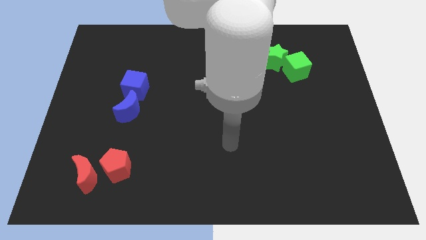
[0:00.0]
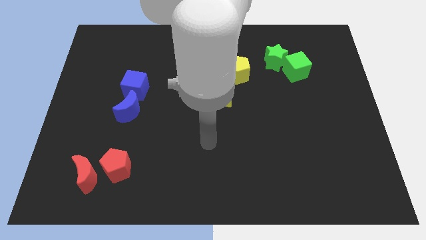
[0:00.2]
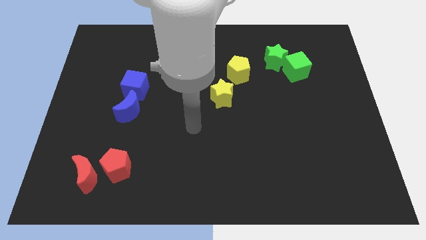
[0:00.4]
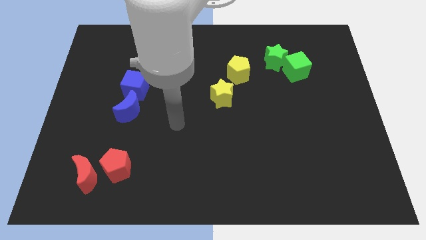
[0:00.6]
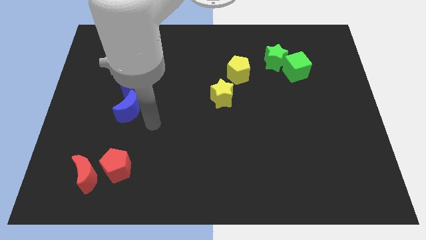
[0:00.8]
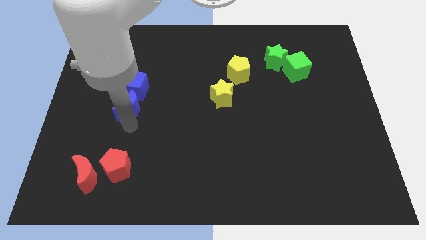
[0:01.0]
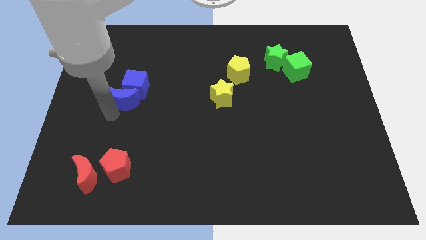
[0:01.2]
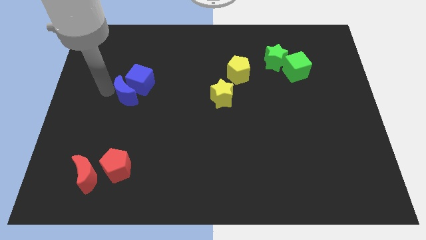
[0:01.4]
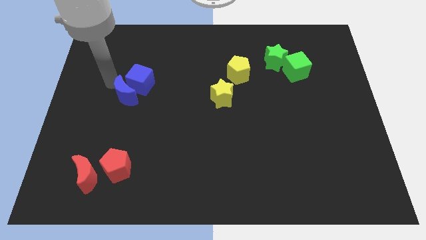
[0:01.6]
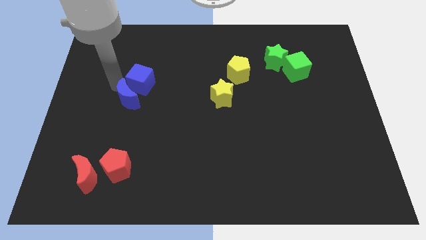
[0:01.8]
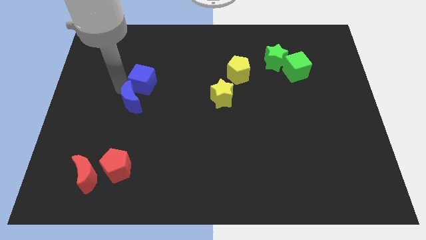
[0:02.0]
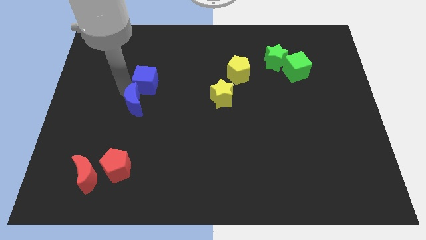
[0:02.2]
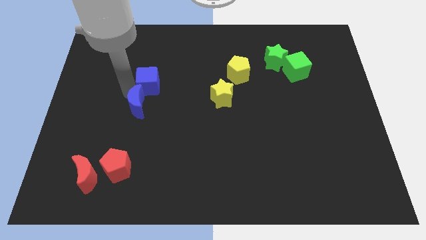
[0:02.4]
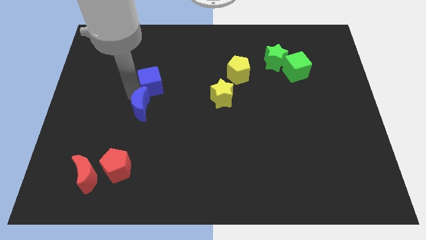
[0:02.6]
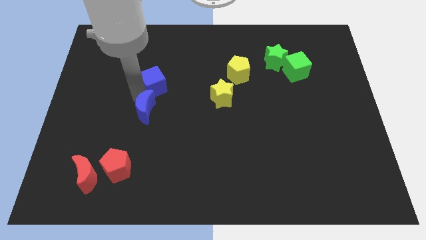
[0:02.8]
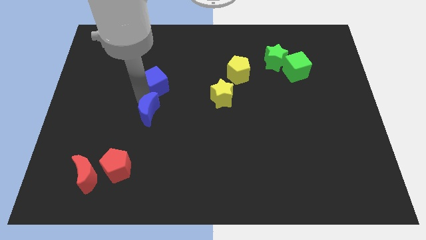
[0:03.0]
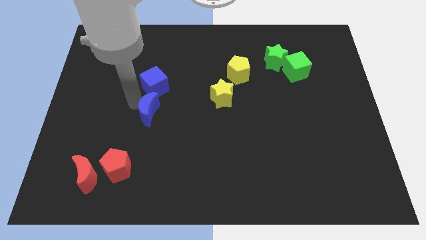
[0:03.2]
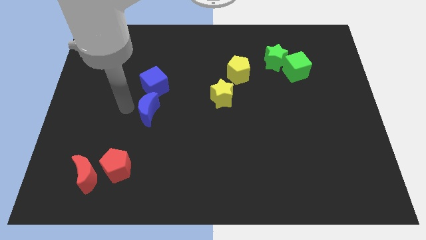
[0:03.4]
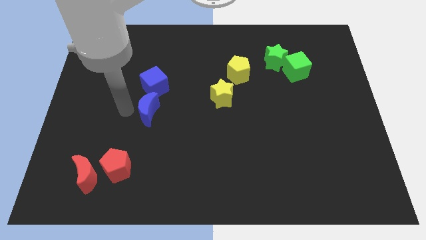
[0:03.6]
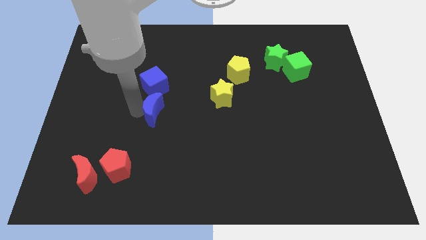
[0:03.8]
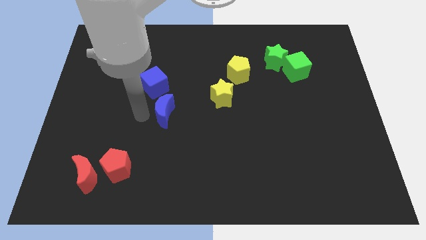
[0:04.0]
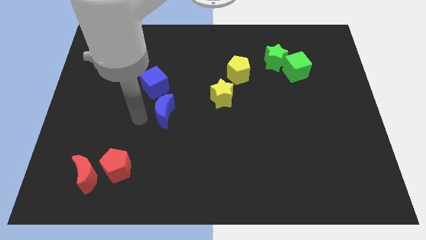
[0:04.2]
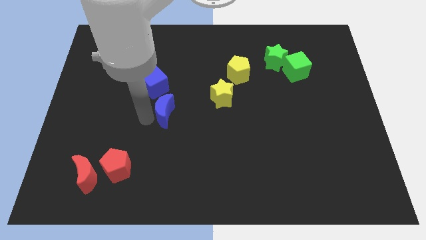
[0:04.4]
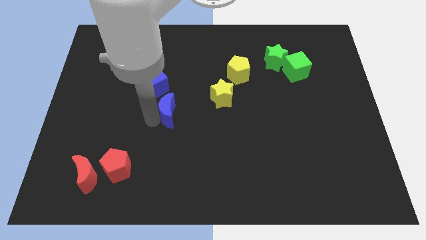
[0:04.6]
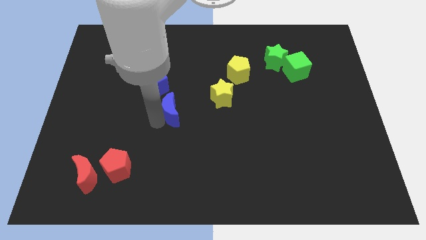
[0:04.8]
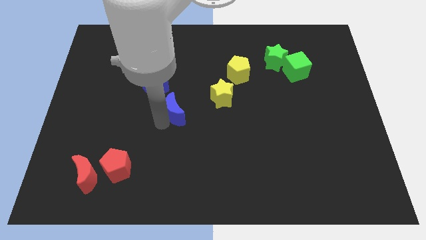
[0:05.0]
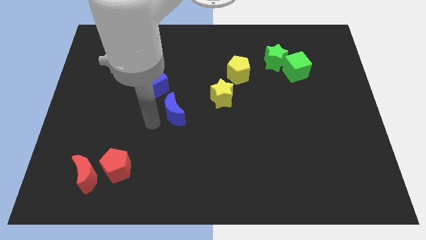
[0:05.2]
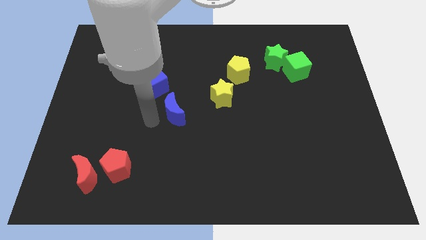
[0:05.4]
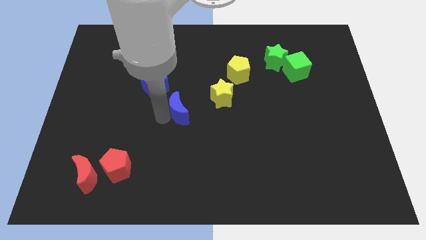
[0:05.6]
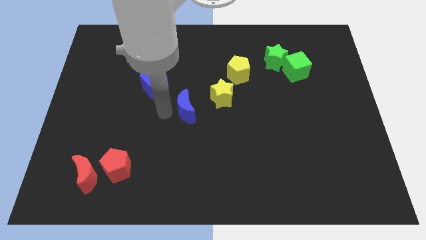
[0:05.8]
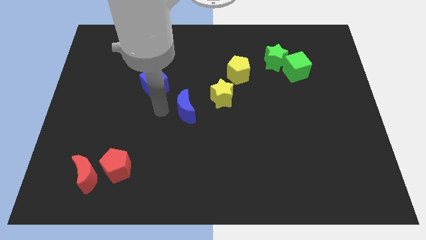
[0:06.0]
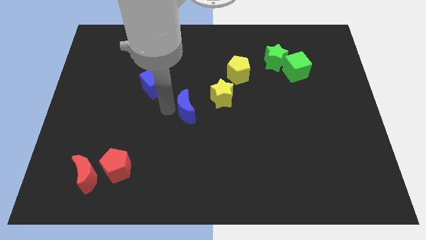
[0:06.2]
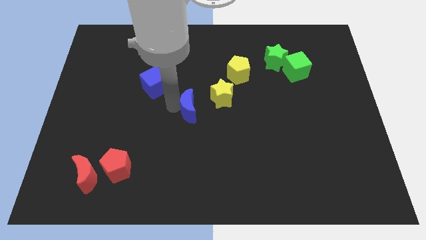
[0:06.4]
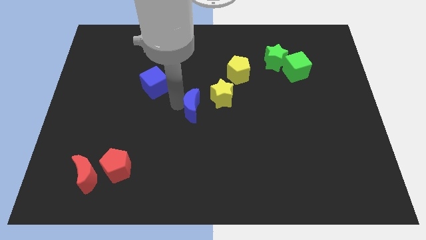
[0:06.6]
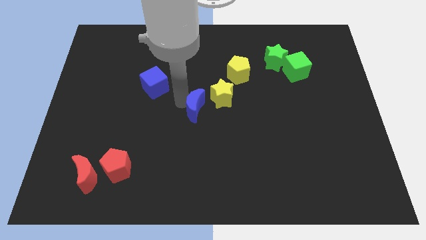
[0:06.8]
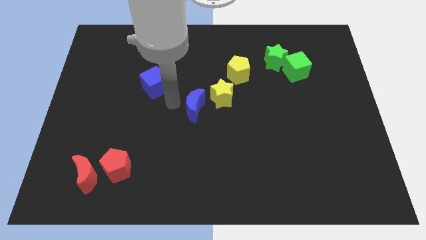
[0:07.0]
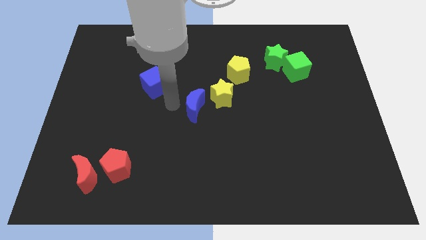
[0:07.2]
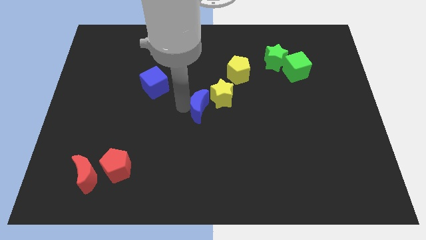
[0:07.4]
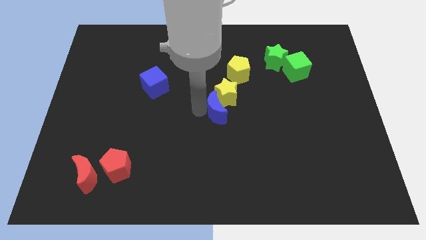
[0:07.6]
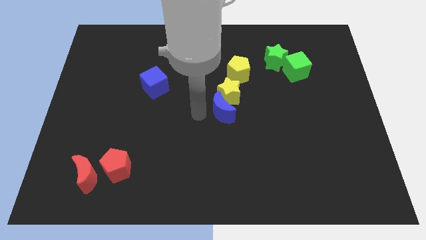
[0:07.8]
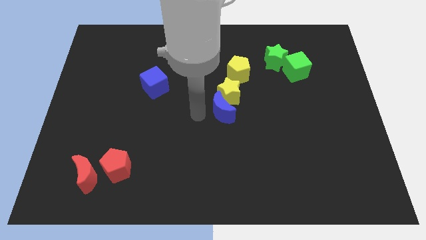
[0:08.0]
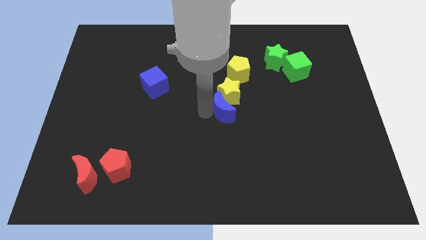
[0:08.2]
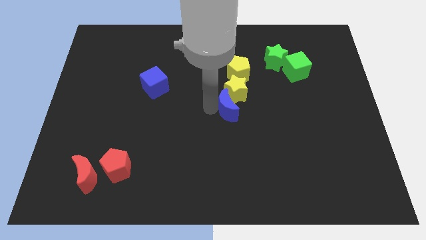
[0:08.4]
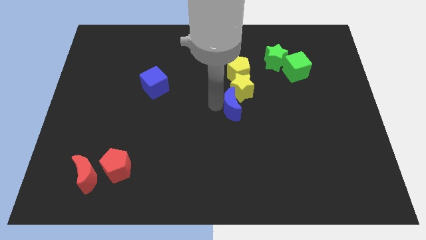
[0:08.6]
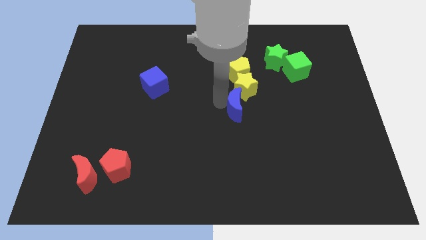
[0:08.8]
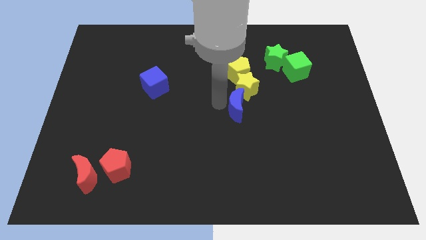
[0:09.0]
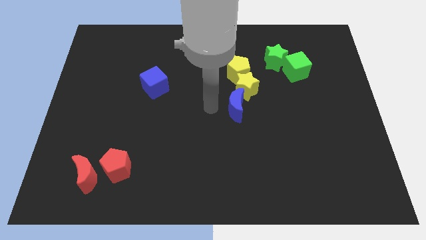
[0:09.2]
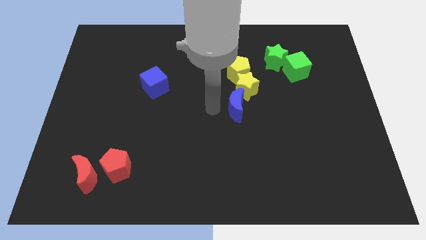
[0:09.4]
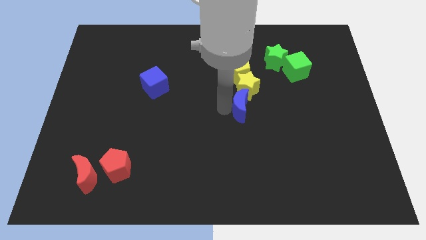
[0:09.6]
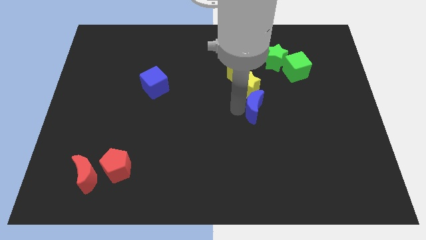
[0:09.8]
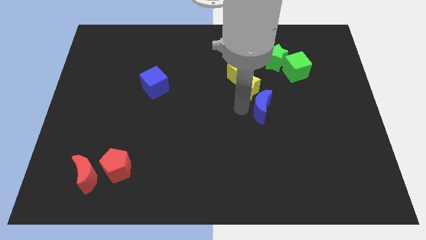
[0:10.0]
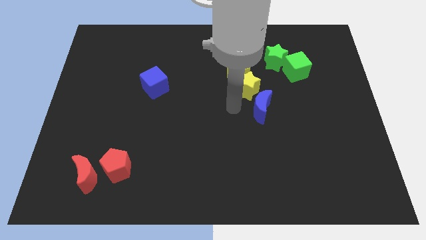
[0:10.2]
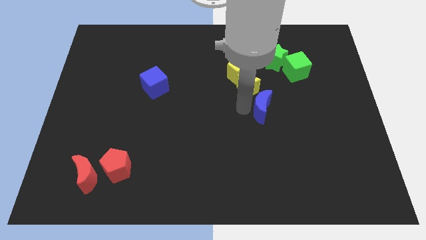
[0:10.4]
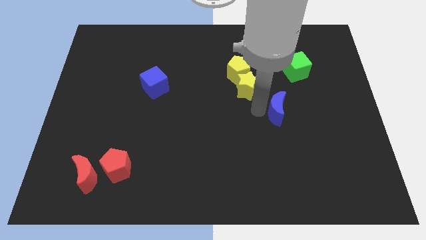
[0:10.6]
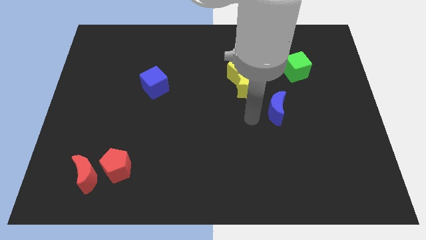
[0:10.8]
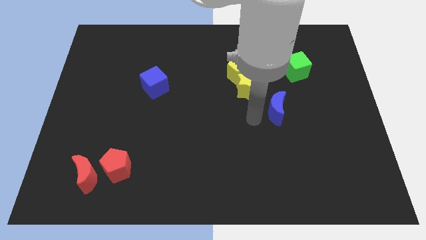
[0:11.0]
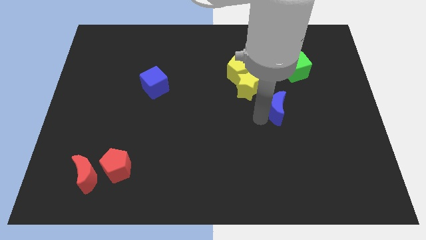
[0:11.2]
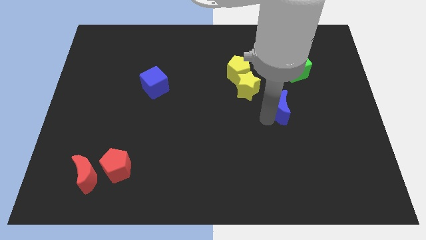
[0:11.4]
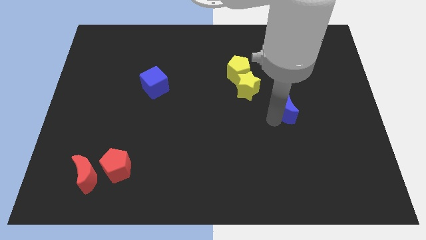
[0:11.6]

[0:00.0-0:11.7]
put the blue moon to the bottom side of the green cube

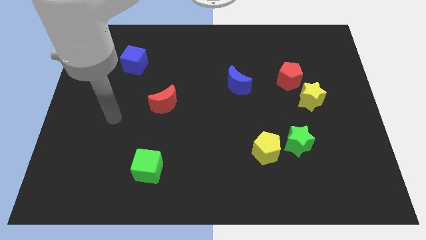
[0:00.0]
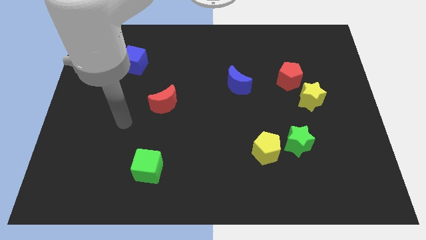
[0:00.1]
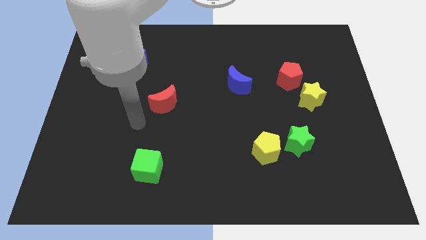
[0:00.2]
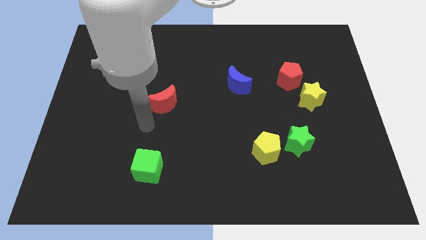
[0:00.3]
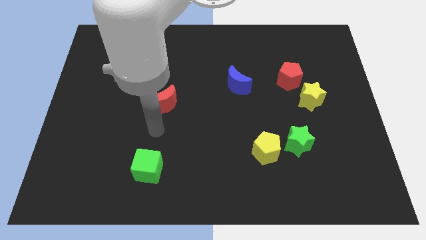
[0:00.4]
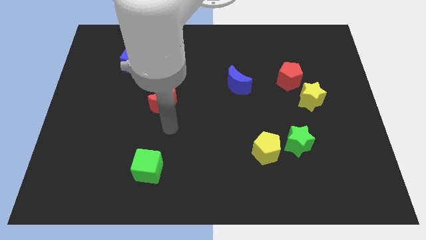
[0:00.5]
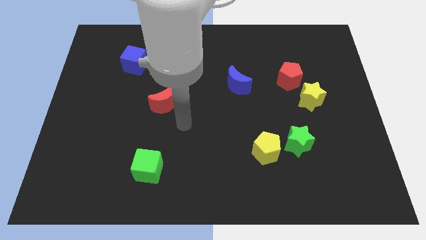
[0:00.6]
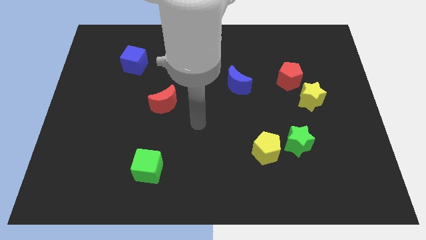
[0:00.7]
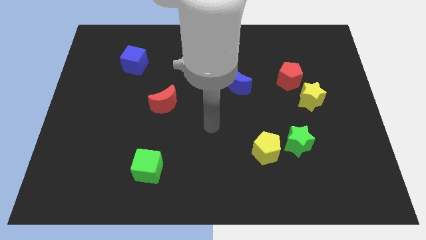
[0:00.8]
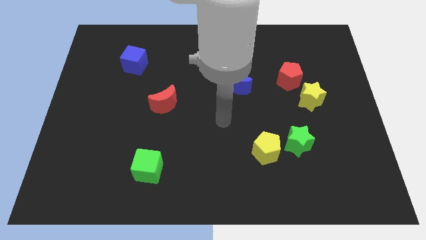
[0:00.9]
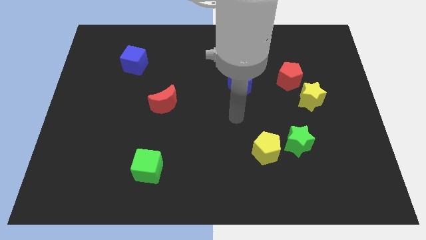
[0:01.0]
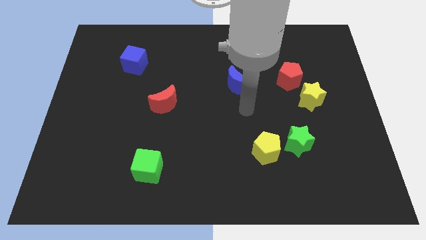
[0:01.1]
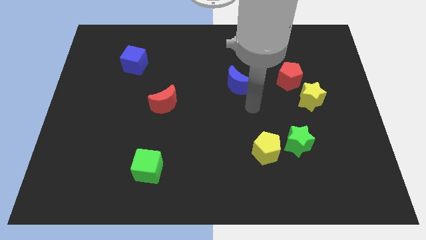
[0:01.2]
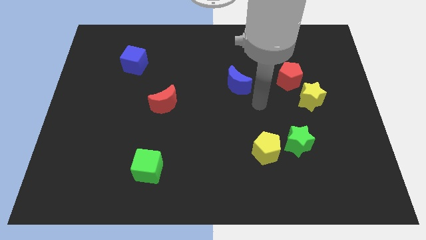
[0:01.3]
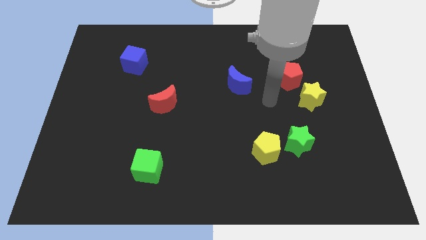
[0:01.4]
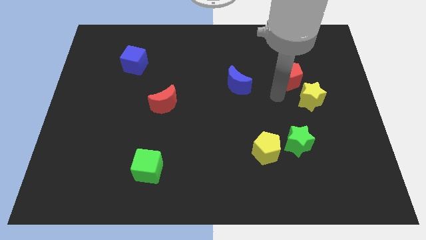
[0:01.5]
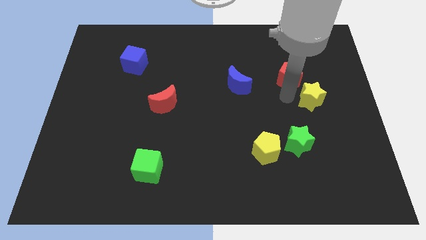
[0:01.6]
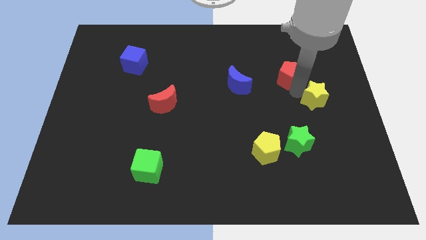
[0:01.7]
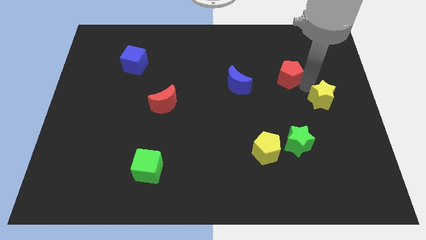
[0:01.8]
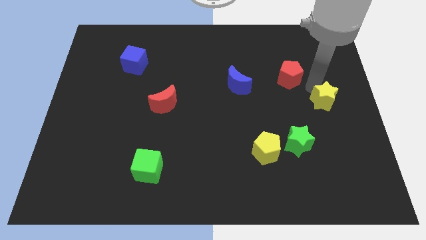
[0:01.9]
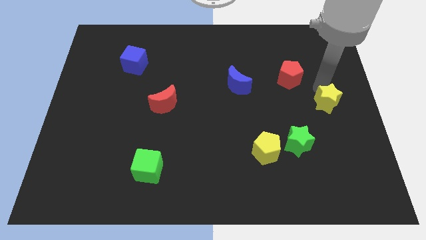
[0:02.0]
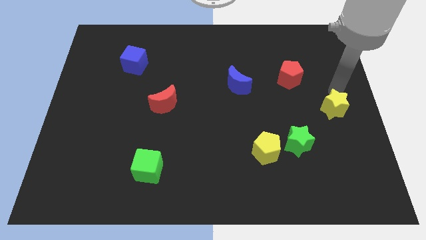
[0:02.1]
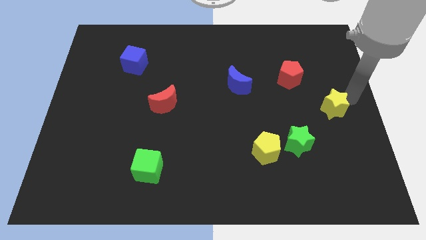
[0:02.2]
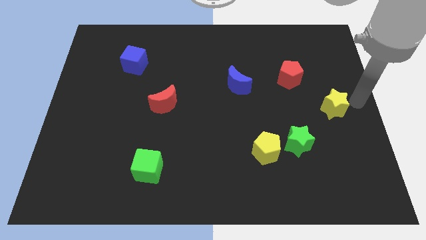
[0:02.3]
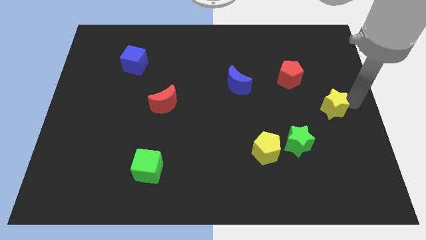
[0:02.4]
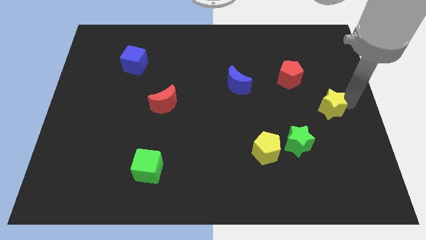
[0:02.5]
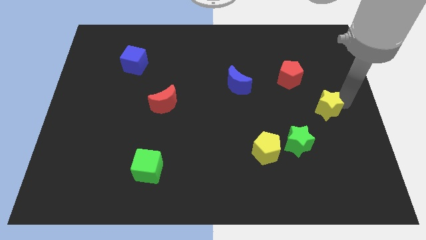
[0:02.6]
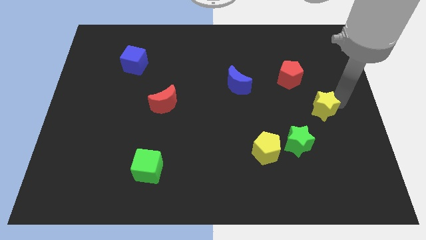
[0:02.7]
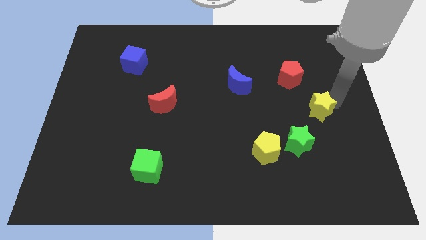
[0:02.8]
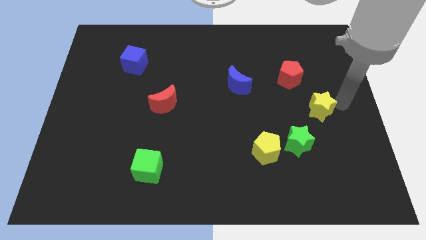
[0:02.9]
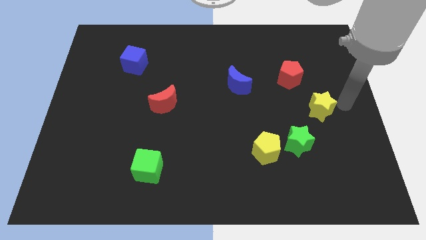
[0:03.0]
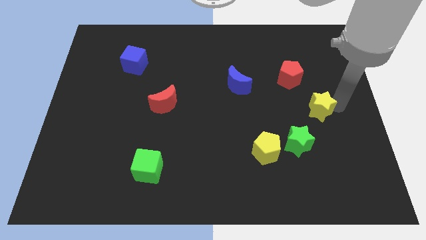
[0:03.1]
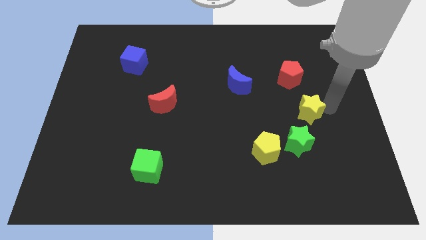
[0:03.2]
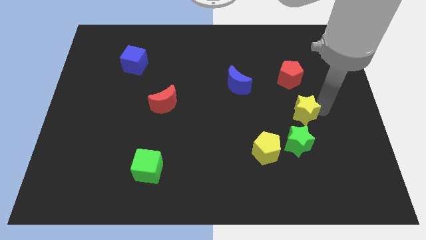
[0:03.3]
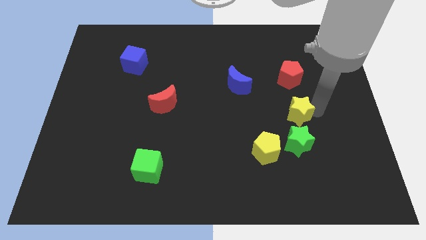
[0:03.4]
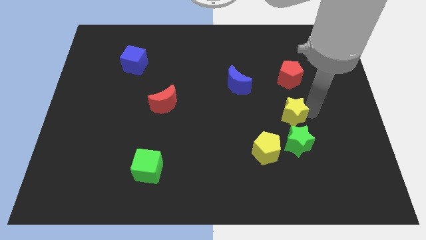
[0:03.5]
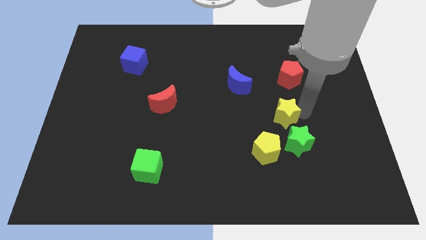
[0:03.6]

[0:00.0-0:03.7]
slide the yellow star to the top left side of the green star
